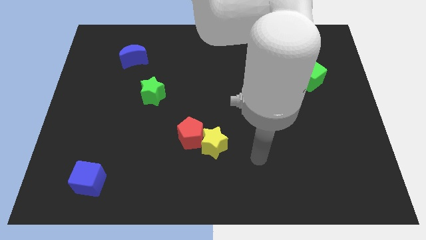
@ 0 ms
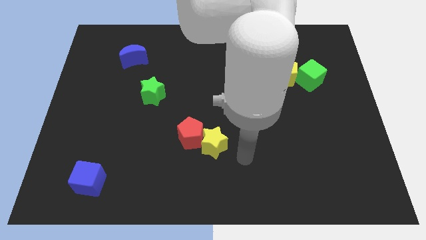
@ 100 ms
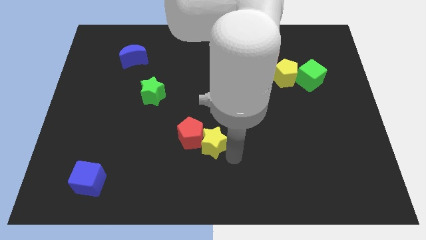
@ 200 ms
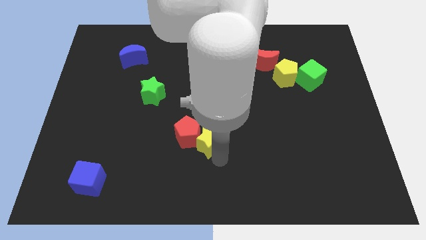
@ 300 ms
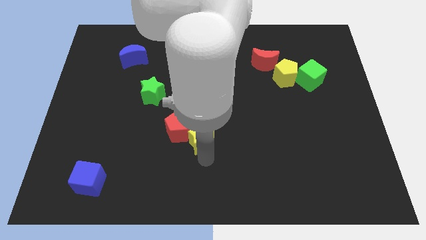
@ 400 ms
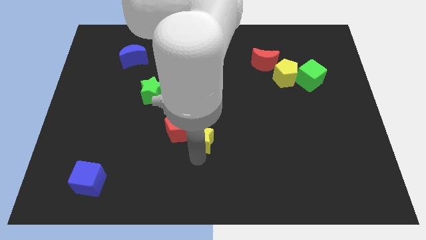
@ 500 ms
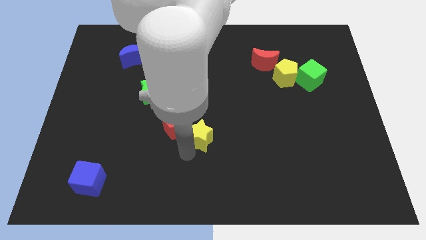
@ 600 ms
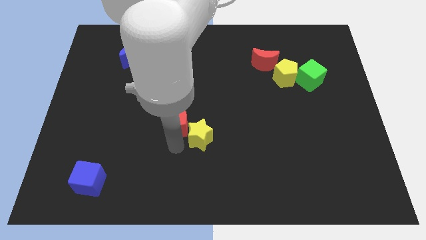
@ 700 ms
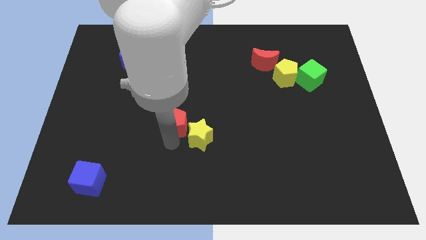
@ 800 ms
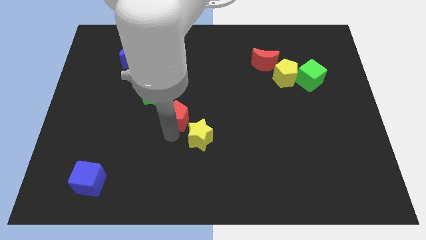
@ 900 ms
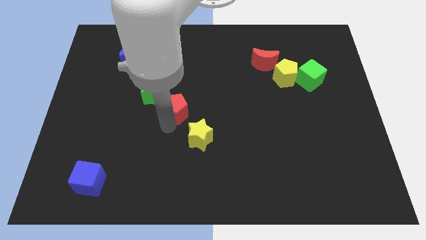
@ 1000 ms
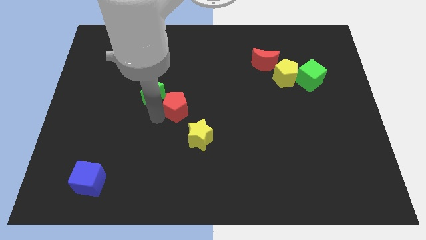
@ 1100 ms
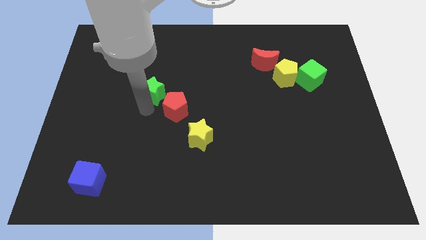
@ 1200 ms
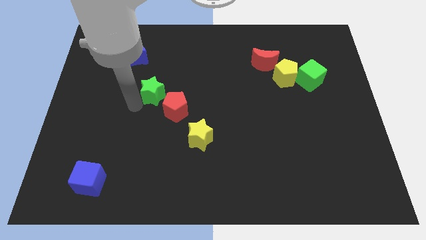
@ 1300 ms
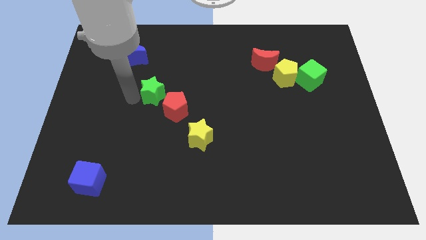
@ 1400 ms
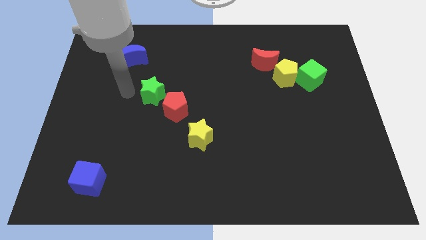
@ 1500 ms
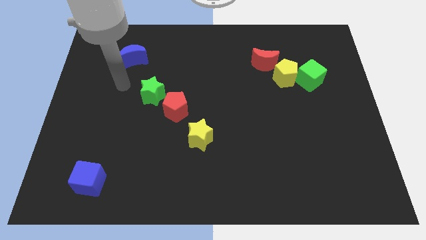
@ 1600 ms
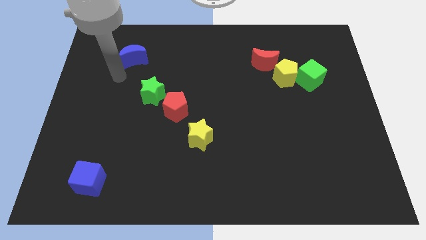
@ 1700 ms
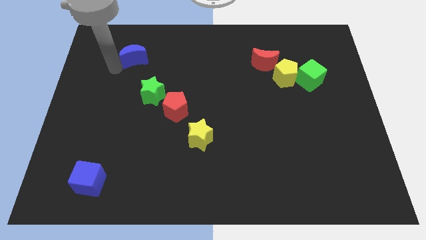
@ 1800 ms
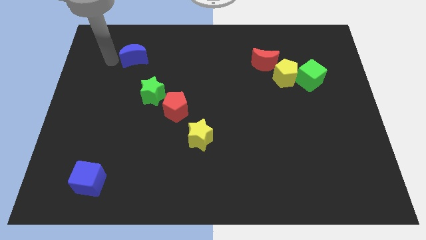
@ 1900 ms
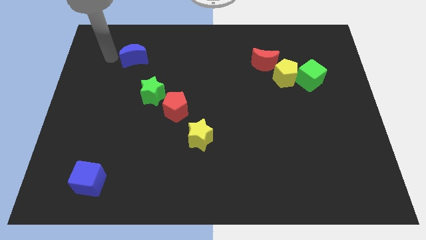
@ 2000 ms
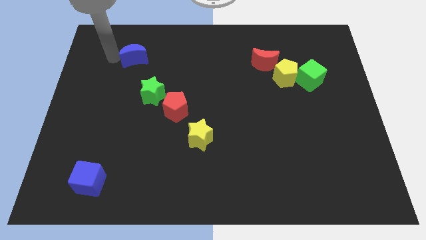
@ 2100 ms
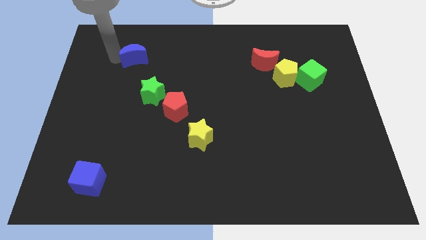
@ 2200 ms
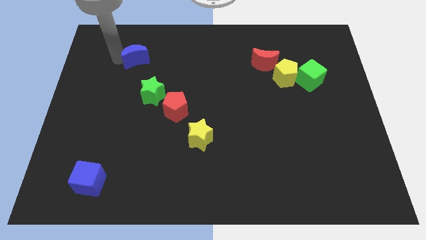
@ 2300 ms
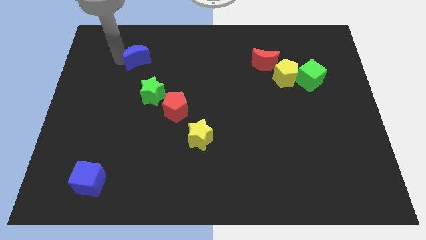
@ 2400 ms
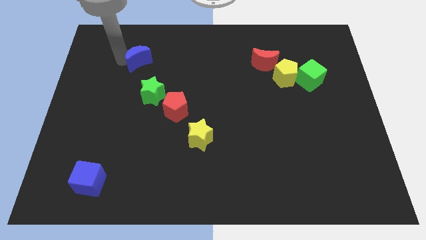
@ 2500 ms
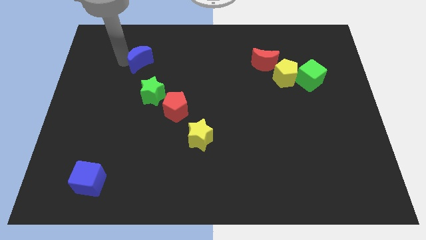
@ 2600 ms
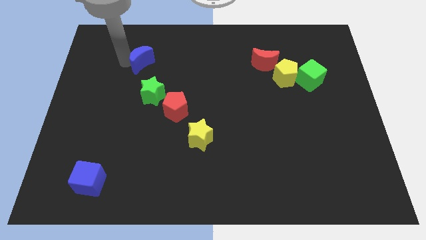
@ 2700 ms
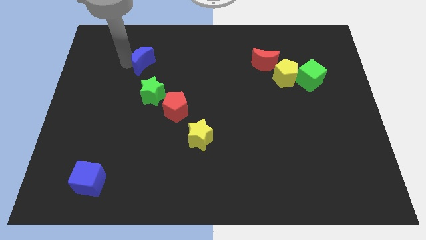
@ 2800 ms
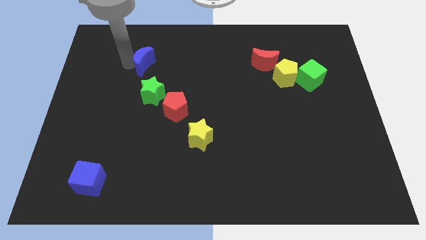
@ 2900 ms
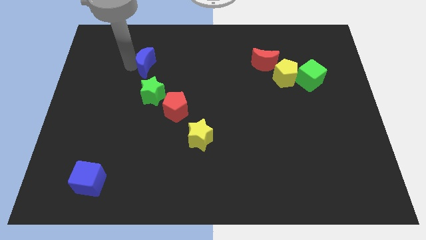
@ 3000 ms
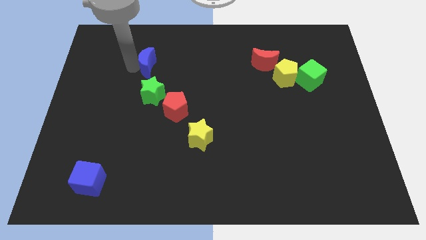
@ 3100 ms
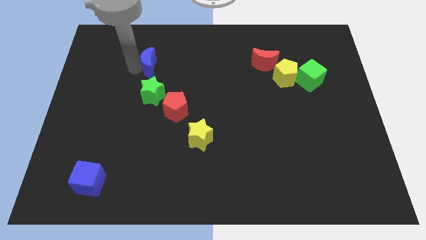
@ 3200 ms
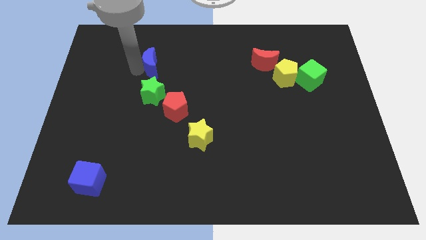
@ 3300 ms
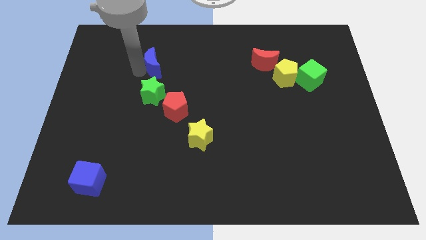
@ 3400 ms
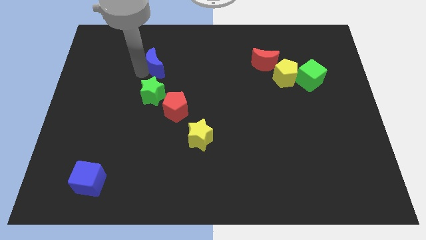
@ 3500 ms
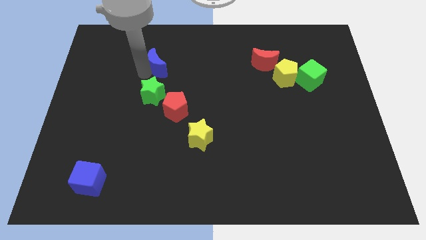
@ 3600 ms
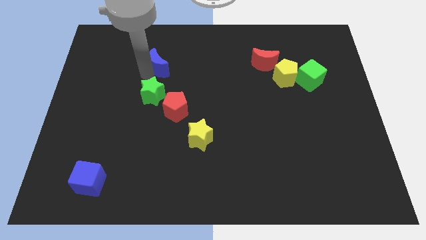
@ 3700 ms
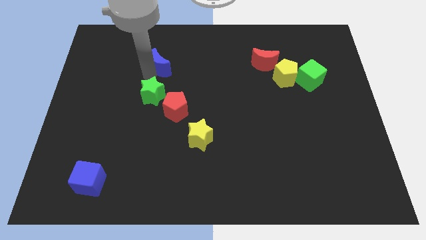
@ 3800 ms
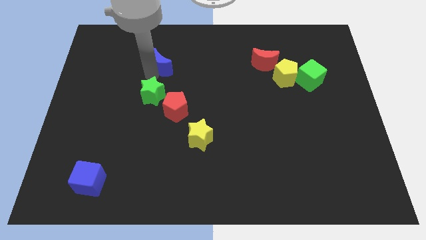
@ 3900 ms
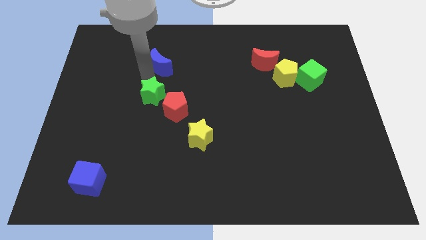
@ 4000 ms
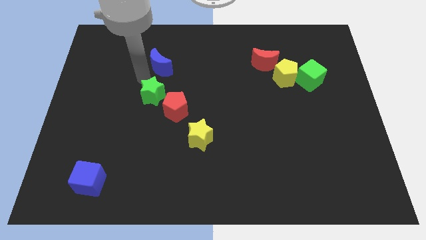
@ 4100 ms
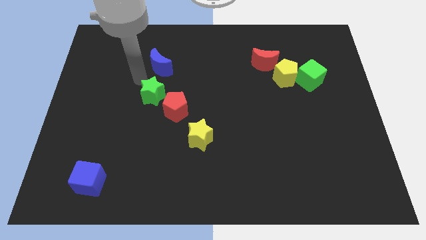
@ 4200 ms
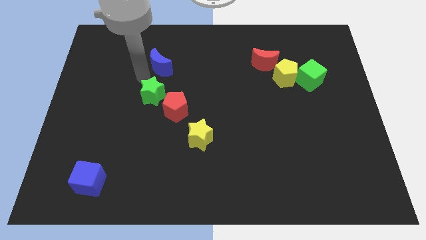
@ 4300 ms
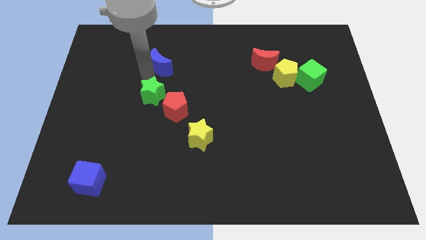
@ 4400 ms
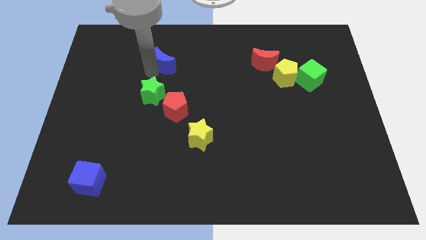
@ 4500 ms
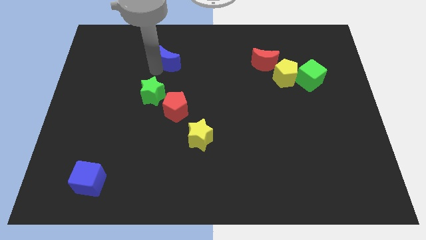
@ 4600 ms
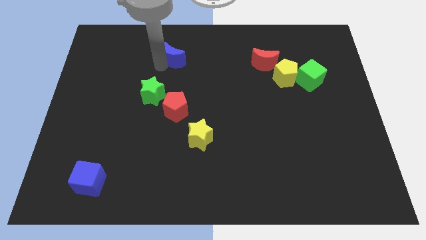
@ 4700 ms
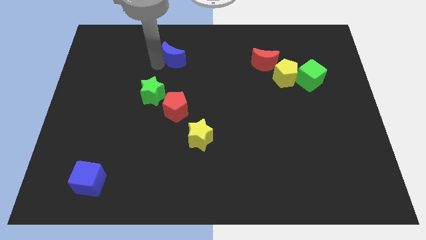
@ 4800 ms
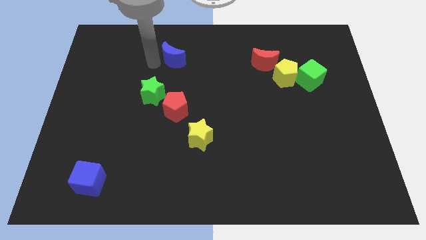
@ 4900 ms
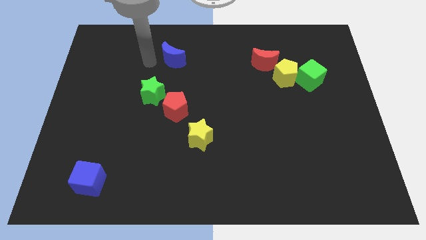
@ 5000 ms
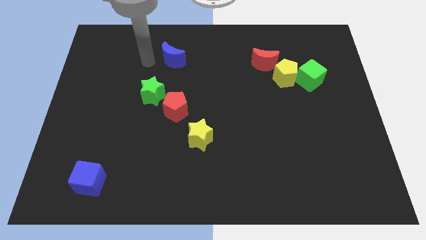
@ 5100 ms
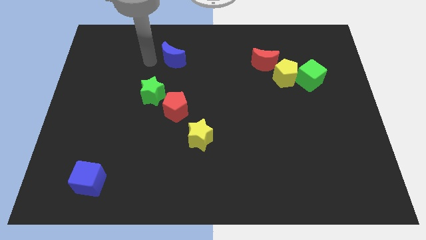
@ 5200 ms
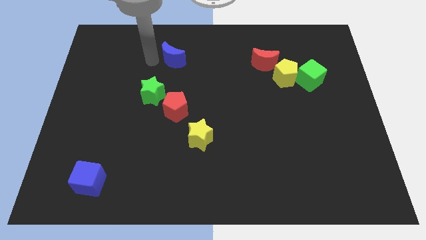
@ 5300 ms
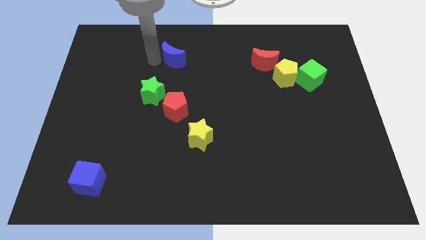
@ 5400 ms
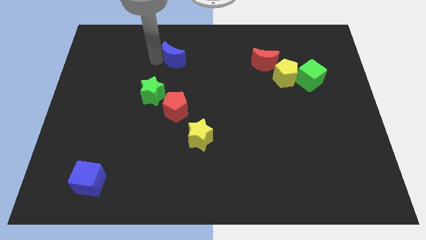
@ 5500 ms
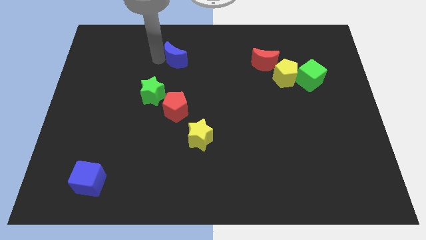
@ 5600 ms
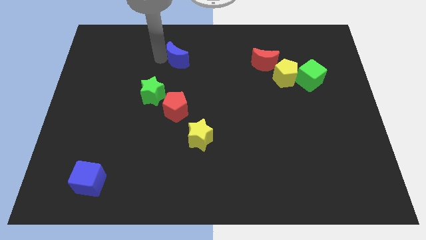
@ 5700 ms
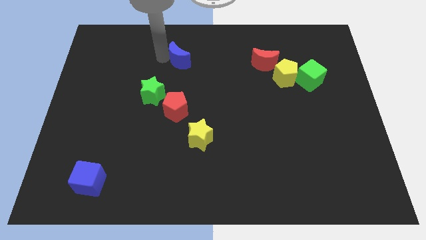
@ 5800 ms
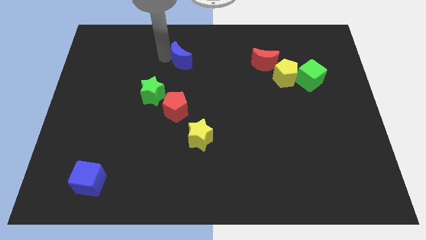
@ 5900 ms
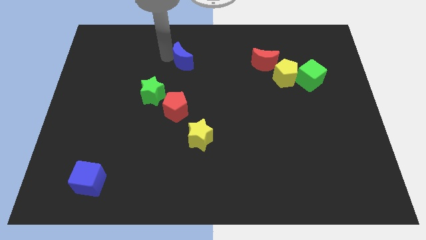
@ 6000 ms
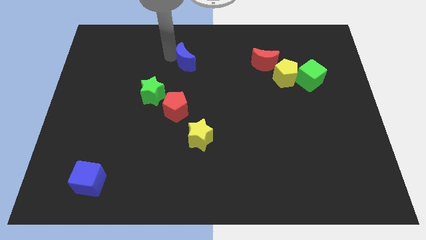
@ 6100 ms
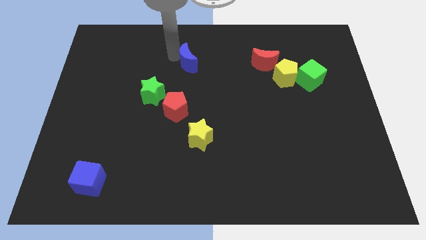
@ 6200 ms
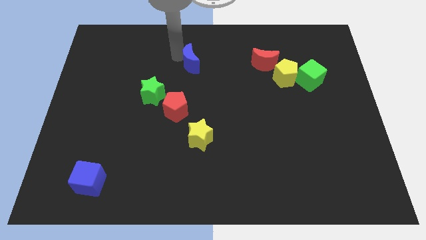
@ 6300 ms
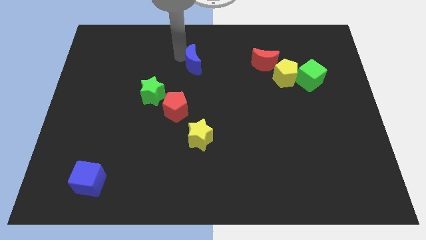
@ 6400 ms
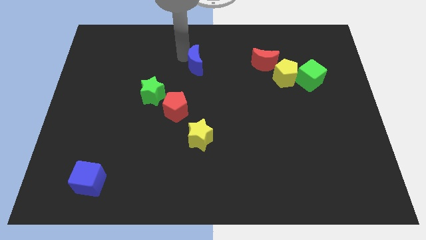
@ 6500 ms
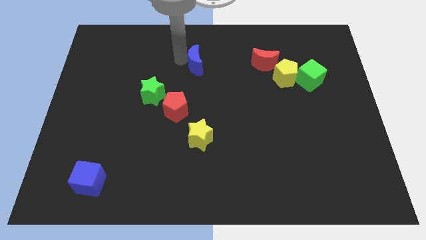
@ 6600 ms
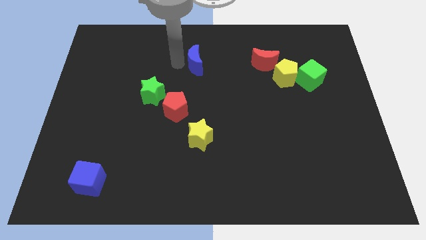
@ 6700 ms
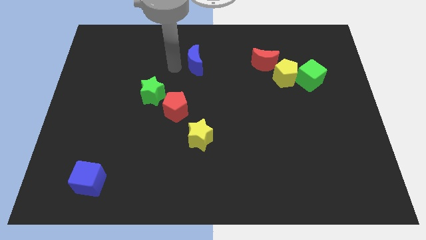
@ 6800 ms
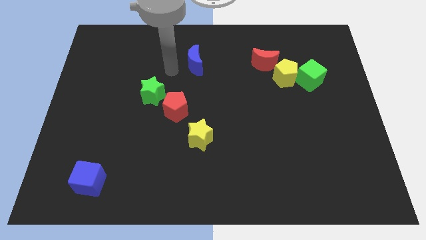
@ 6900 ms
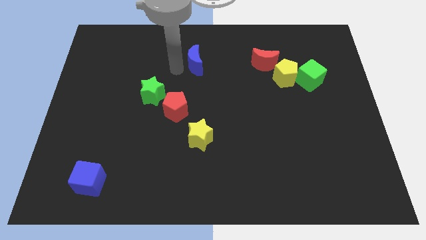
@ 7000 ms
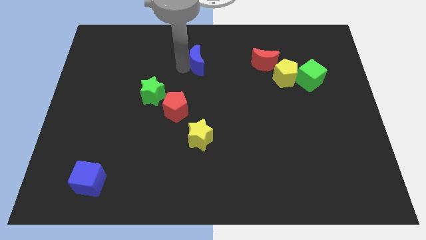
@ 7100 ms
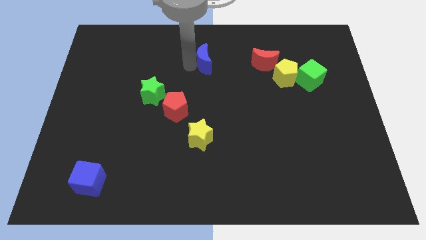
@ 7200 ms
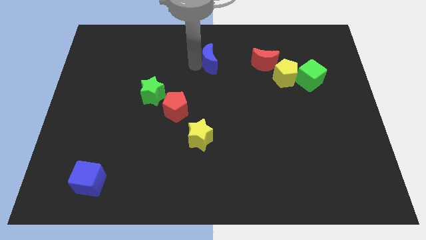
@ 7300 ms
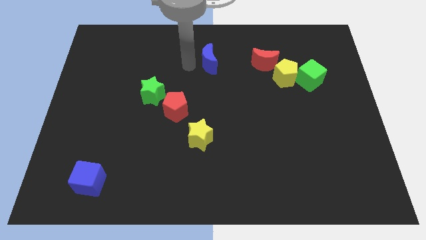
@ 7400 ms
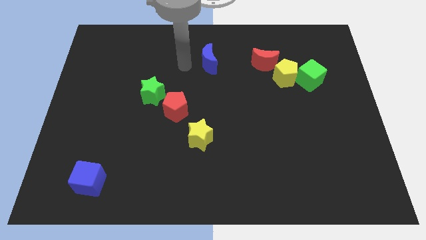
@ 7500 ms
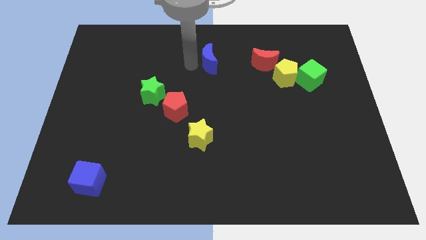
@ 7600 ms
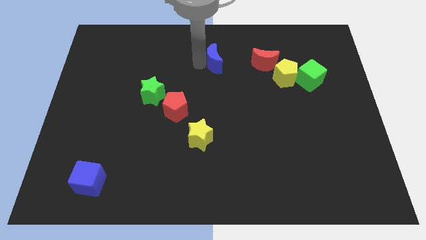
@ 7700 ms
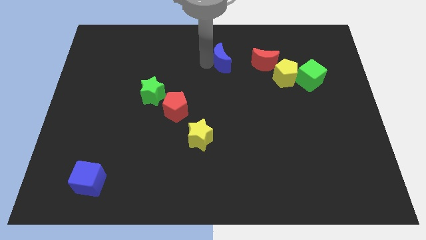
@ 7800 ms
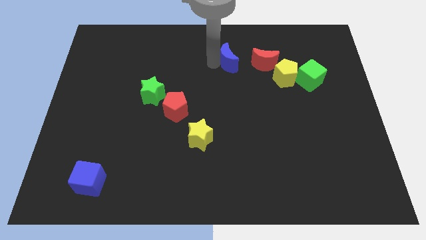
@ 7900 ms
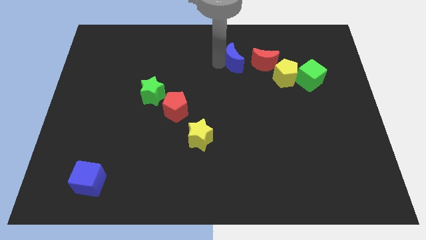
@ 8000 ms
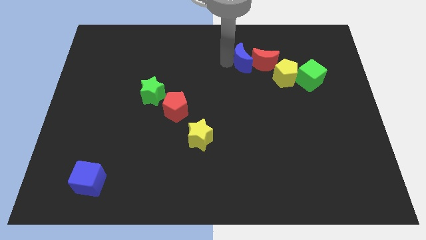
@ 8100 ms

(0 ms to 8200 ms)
move the blue moon next to the red moon
